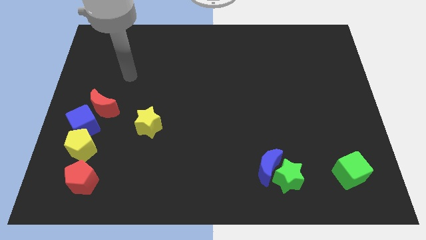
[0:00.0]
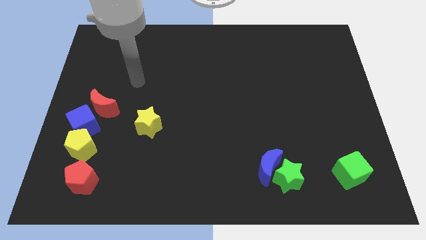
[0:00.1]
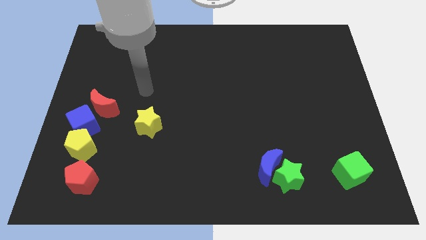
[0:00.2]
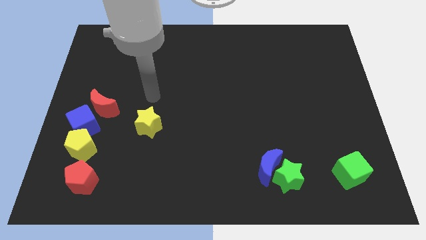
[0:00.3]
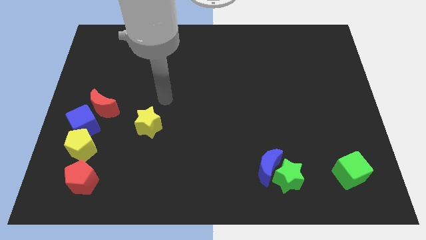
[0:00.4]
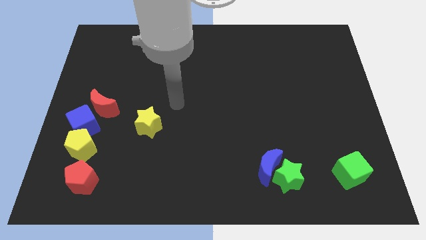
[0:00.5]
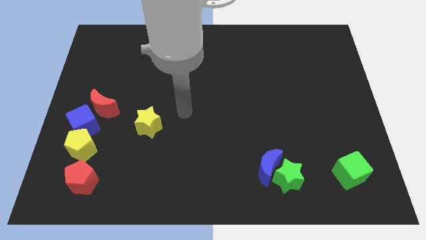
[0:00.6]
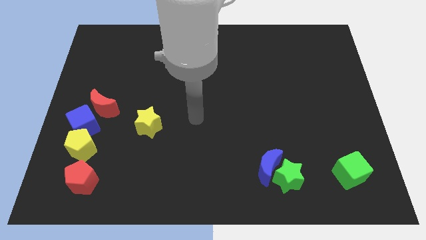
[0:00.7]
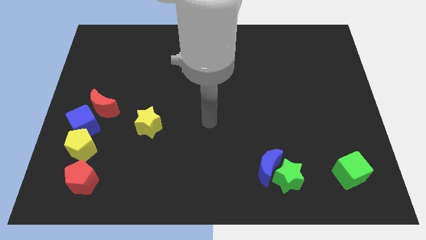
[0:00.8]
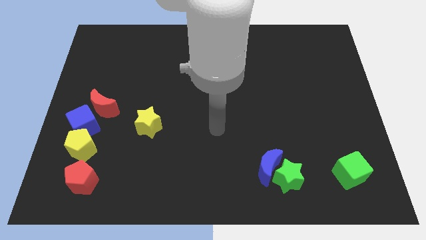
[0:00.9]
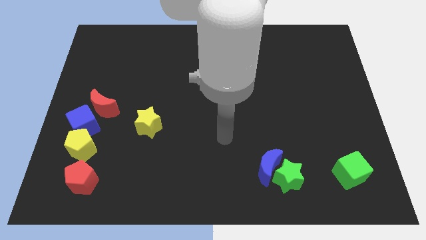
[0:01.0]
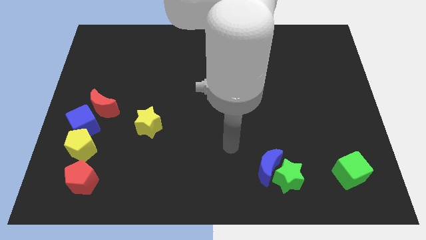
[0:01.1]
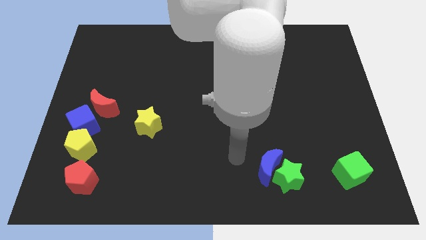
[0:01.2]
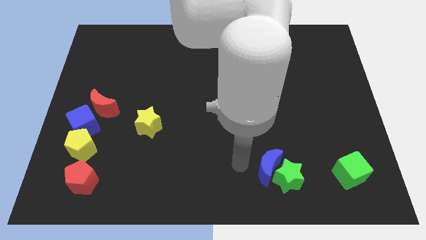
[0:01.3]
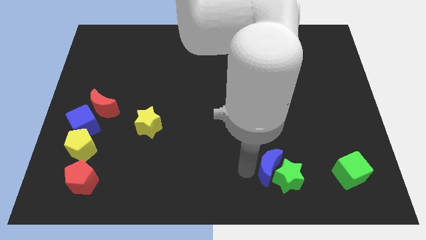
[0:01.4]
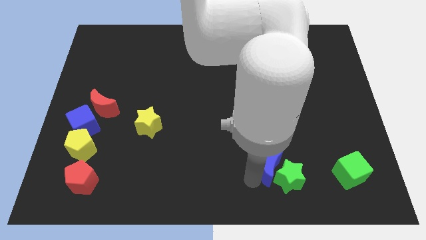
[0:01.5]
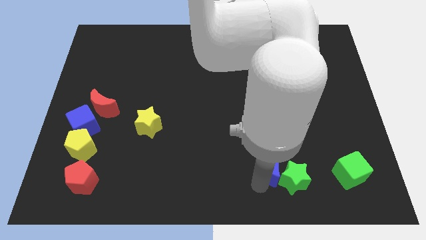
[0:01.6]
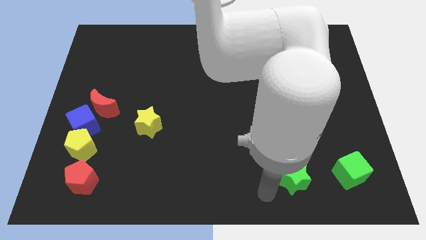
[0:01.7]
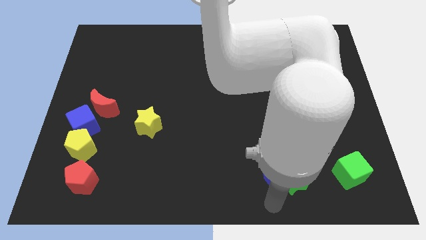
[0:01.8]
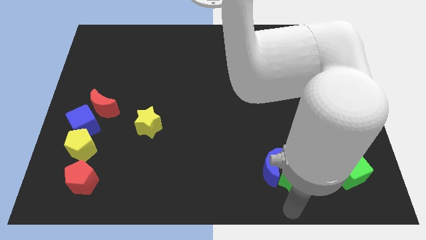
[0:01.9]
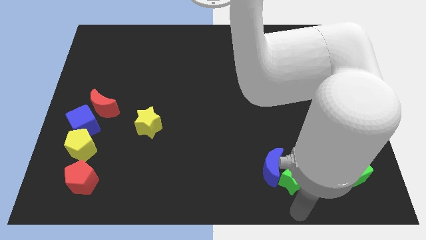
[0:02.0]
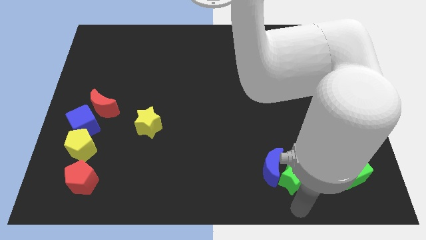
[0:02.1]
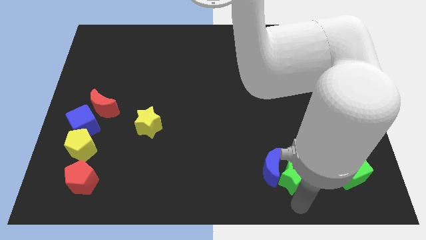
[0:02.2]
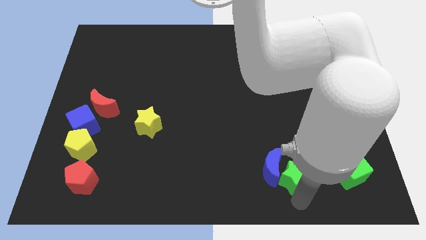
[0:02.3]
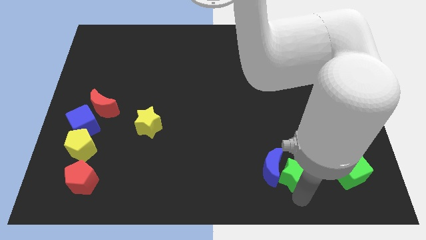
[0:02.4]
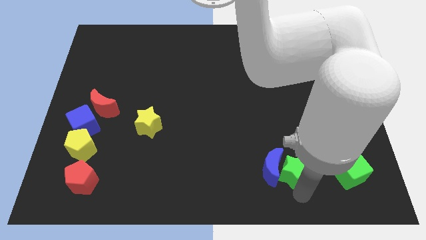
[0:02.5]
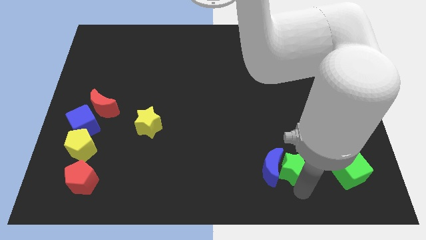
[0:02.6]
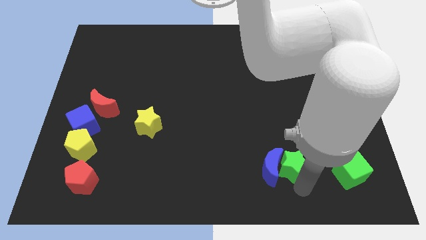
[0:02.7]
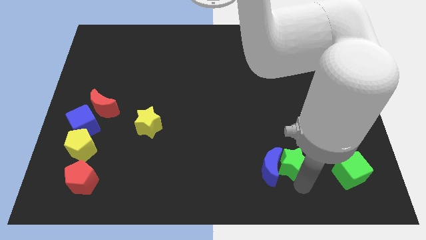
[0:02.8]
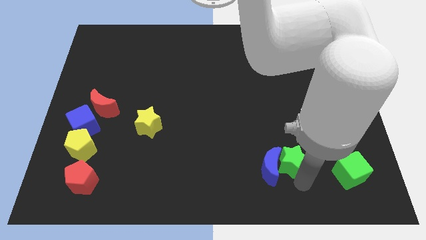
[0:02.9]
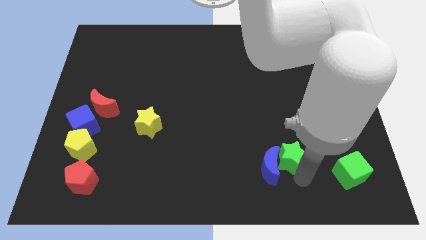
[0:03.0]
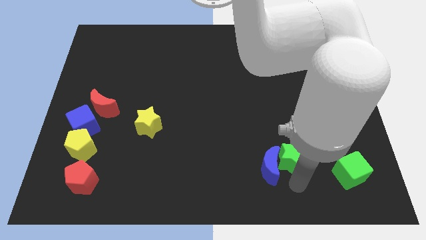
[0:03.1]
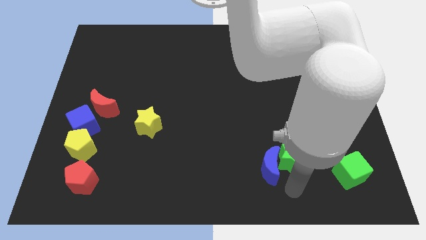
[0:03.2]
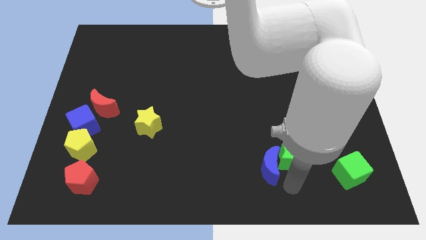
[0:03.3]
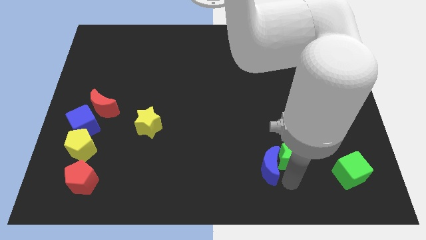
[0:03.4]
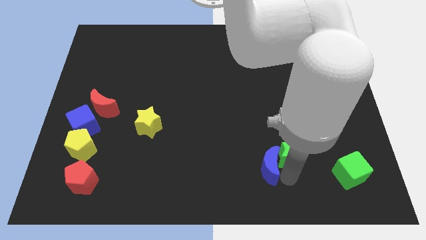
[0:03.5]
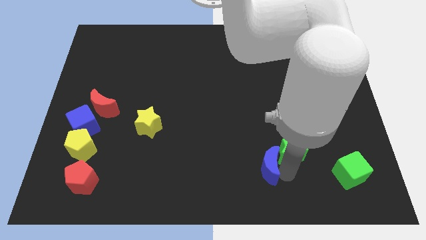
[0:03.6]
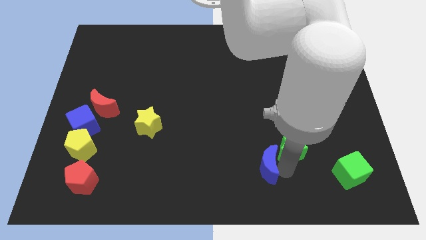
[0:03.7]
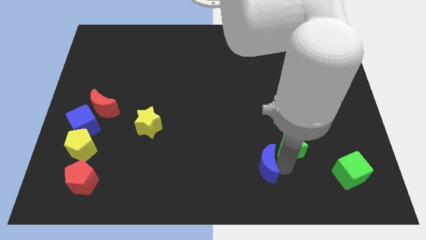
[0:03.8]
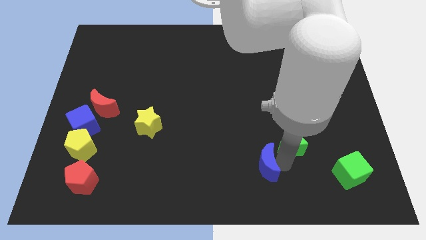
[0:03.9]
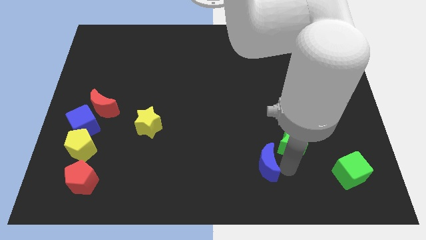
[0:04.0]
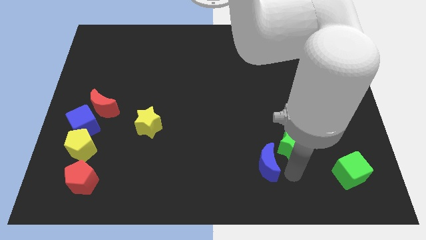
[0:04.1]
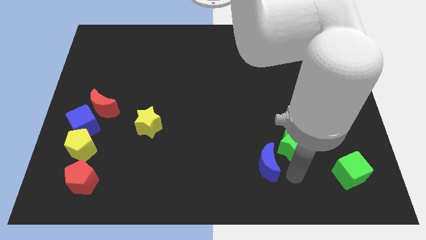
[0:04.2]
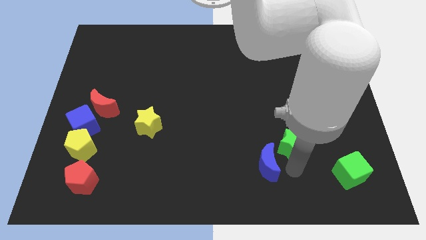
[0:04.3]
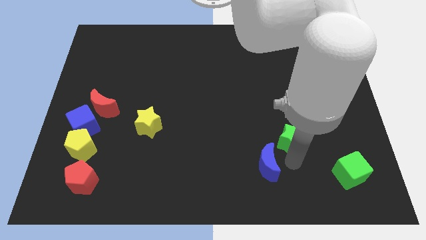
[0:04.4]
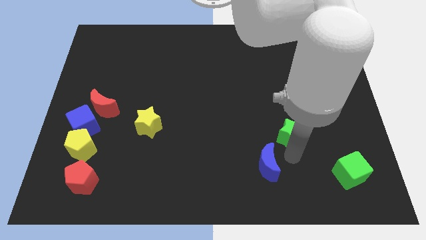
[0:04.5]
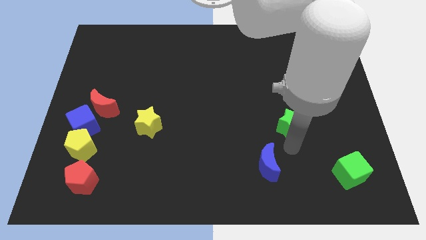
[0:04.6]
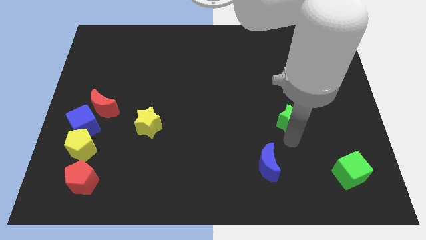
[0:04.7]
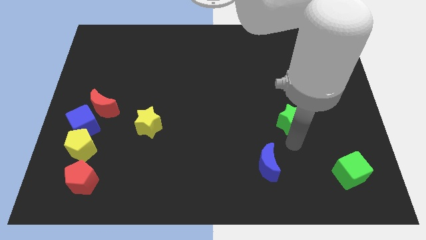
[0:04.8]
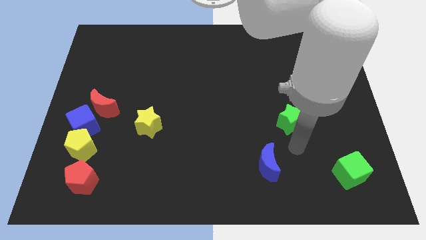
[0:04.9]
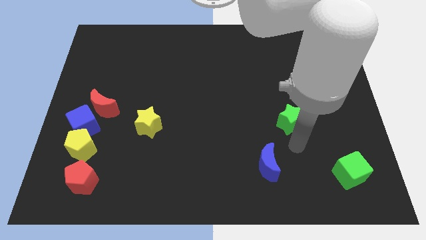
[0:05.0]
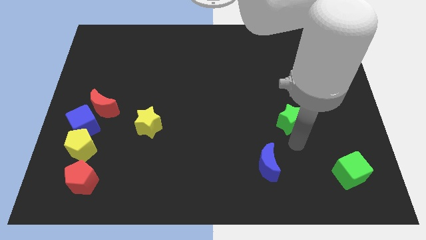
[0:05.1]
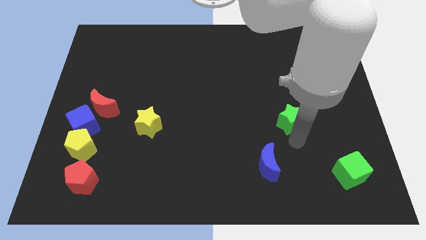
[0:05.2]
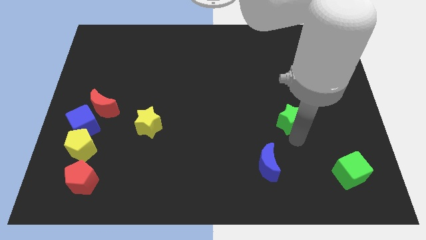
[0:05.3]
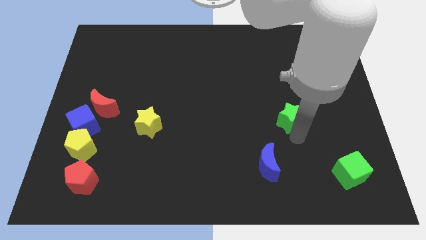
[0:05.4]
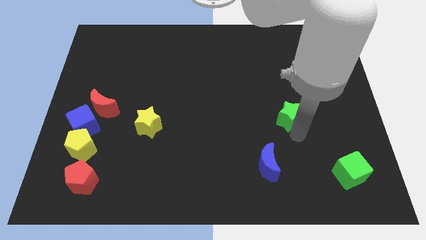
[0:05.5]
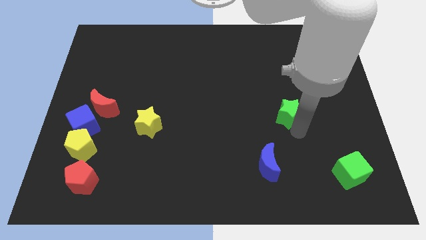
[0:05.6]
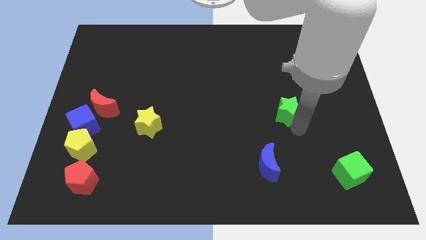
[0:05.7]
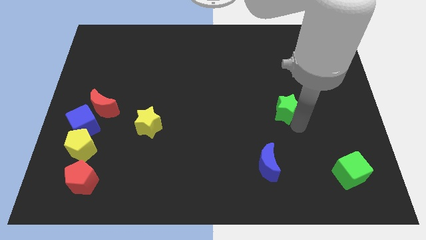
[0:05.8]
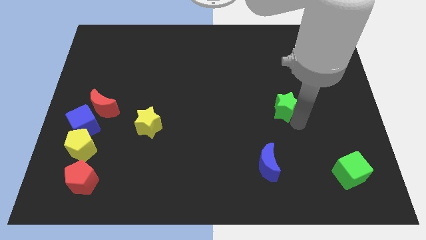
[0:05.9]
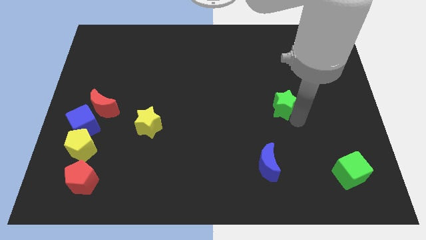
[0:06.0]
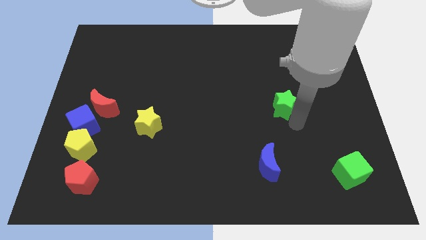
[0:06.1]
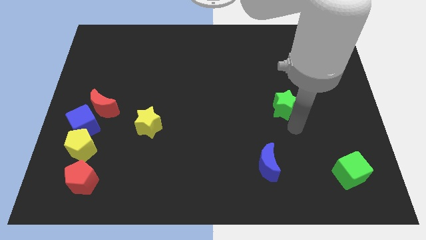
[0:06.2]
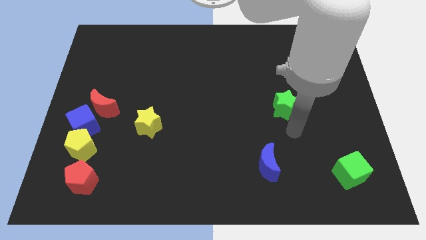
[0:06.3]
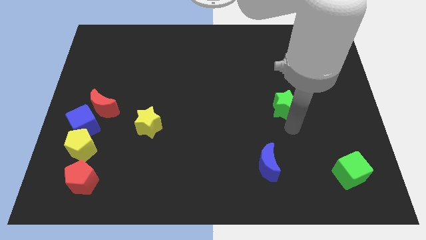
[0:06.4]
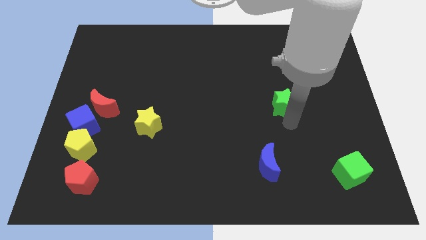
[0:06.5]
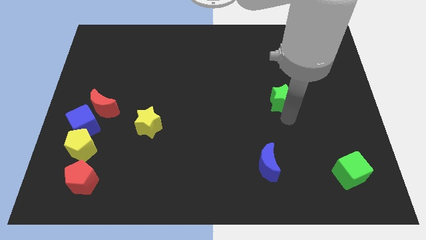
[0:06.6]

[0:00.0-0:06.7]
move the green star up

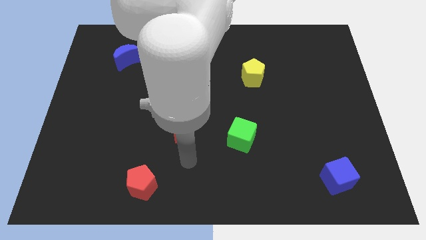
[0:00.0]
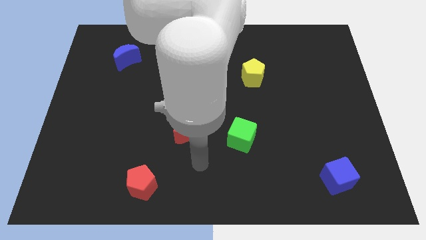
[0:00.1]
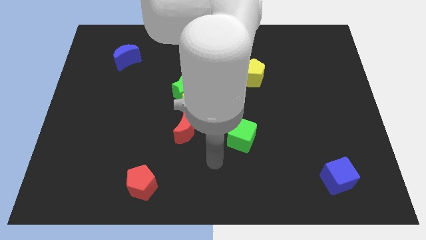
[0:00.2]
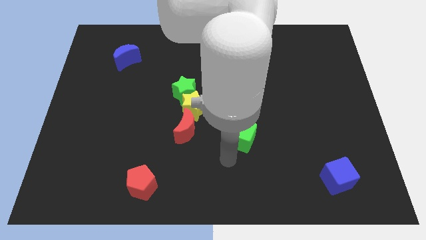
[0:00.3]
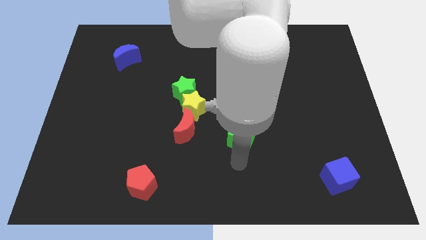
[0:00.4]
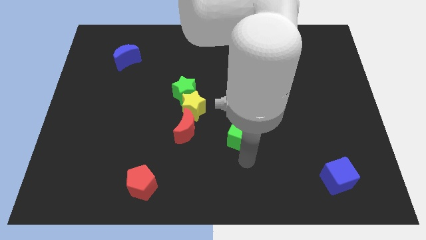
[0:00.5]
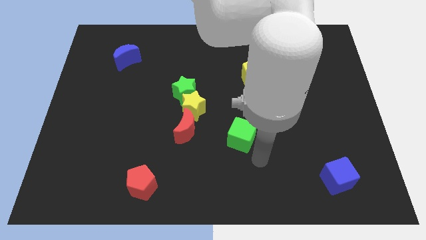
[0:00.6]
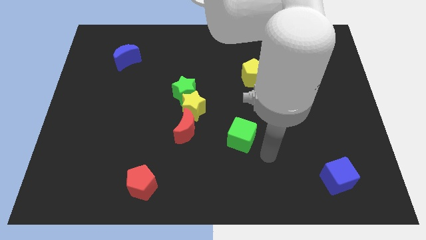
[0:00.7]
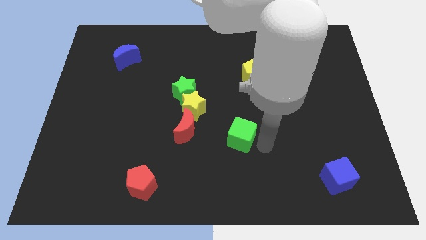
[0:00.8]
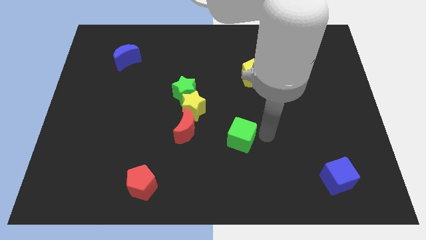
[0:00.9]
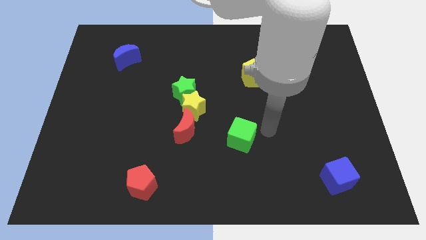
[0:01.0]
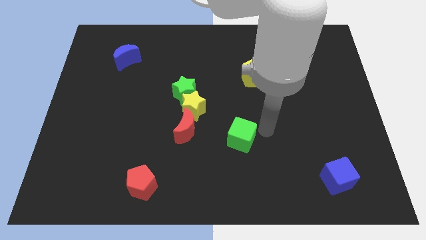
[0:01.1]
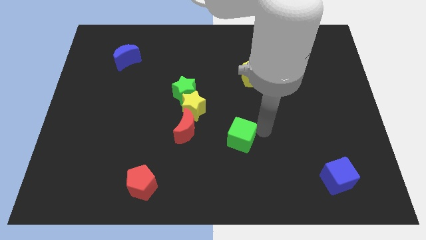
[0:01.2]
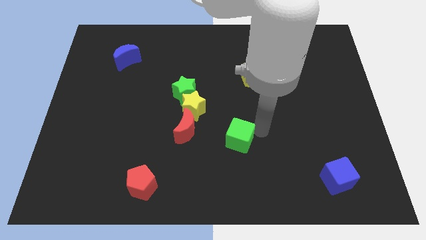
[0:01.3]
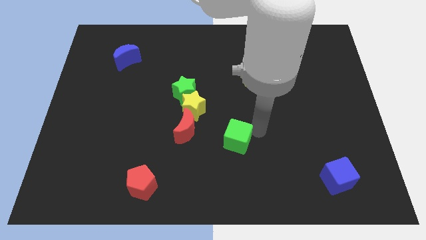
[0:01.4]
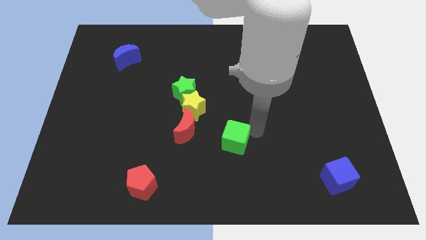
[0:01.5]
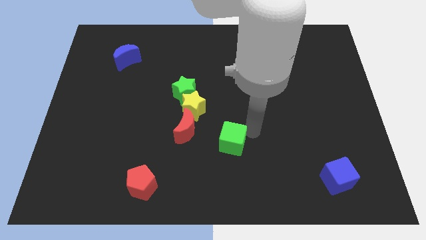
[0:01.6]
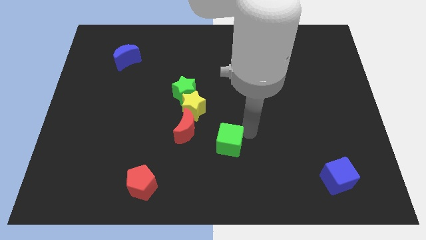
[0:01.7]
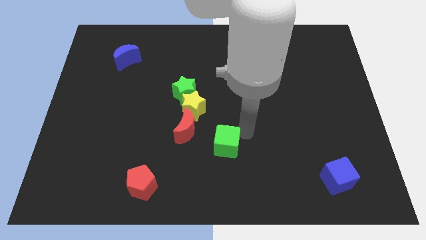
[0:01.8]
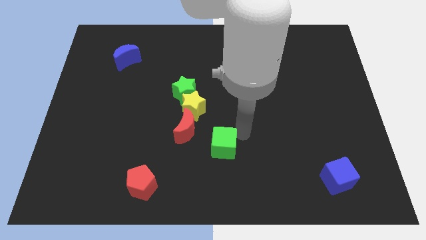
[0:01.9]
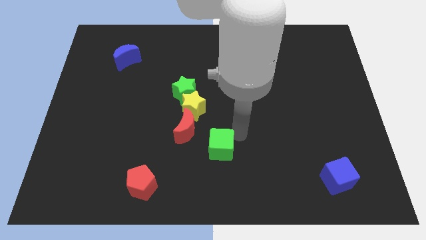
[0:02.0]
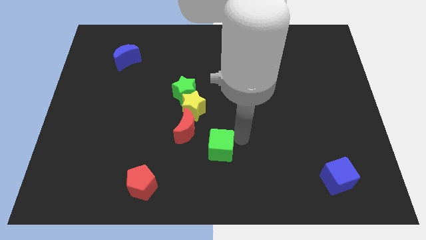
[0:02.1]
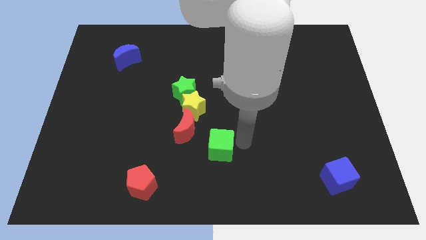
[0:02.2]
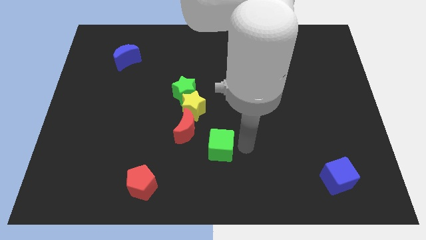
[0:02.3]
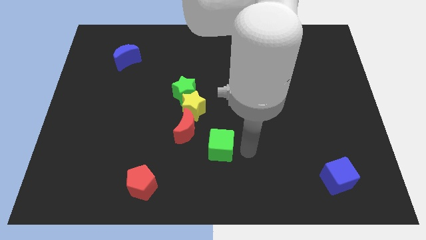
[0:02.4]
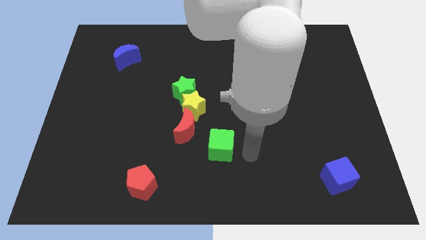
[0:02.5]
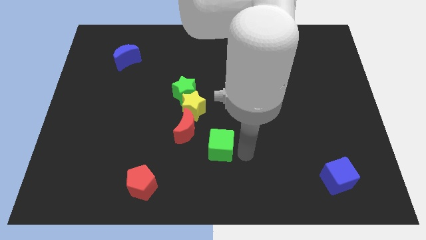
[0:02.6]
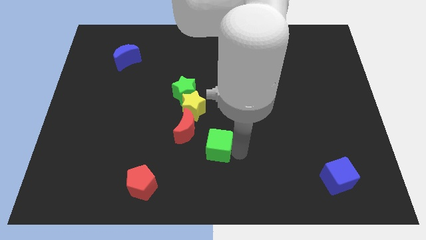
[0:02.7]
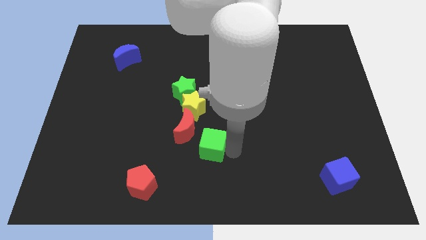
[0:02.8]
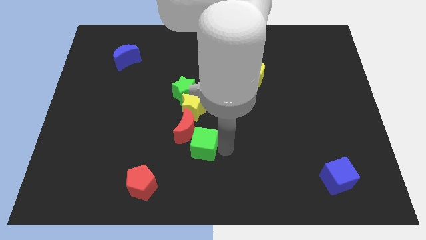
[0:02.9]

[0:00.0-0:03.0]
push the green cube a bit left
